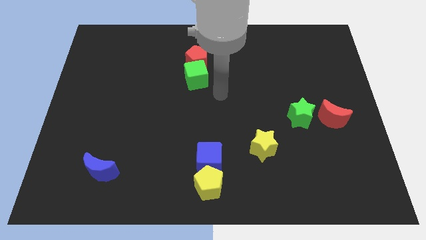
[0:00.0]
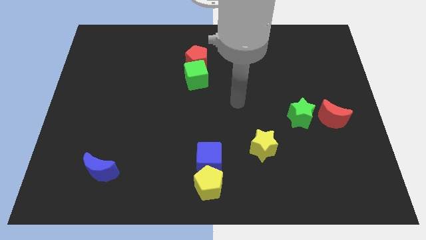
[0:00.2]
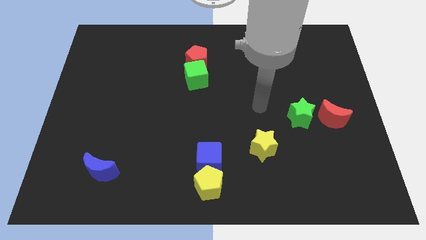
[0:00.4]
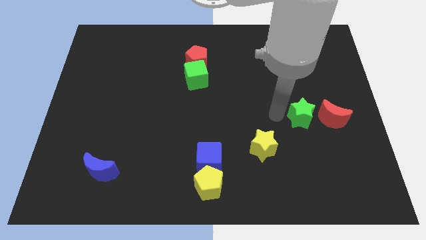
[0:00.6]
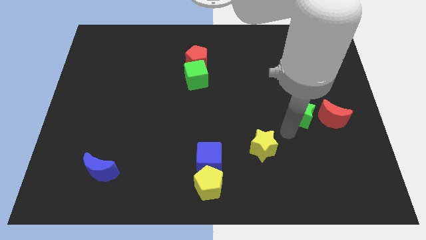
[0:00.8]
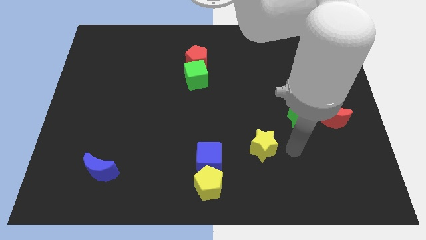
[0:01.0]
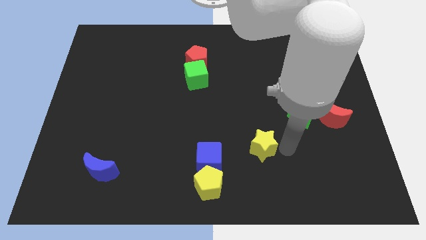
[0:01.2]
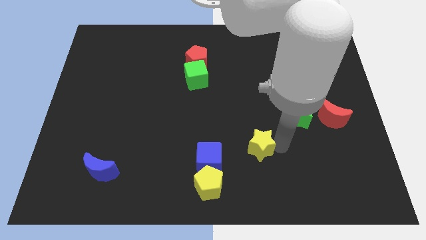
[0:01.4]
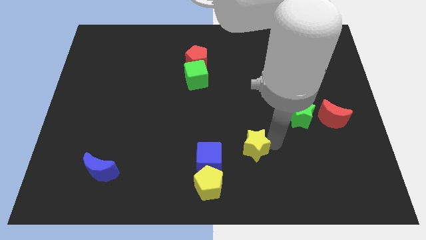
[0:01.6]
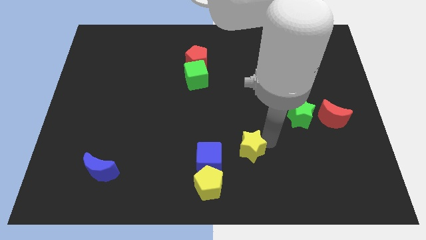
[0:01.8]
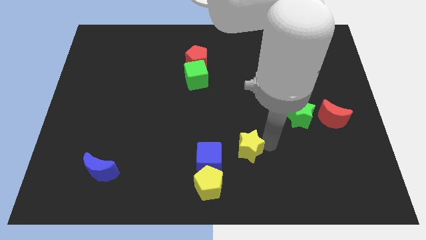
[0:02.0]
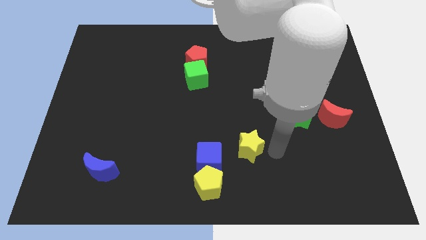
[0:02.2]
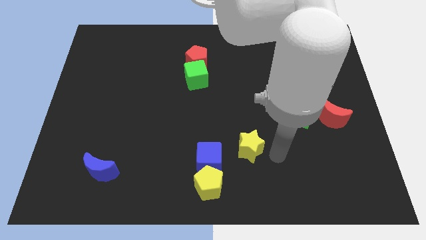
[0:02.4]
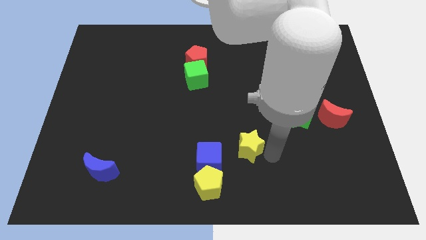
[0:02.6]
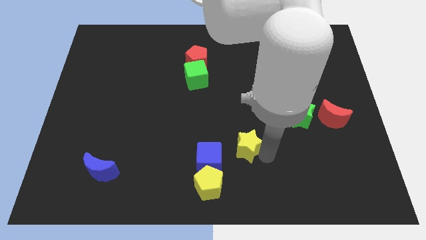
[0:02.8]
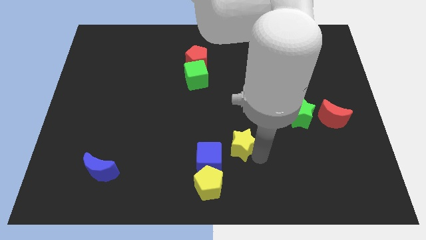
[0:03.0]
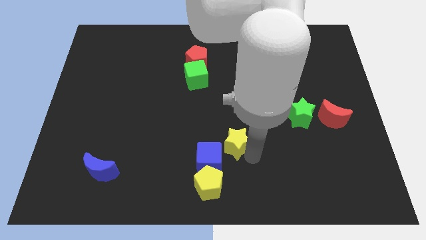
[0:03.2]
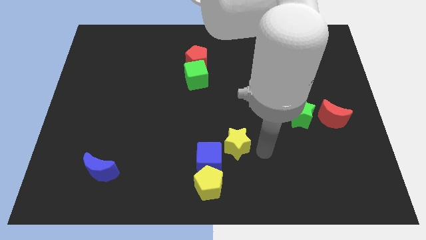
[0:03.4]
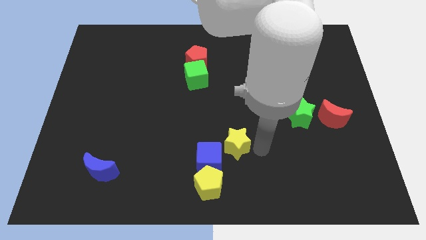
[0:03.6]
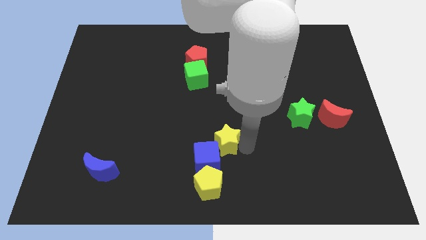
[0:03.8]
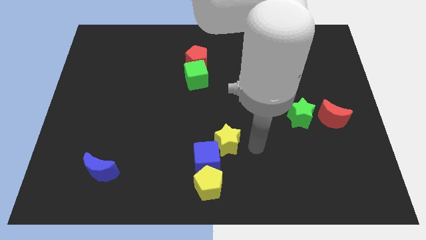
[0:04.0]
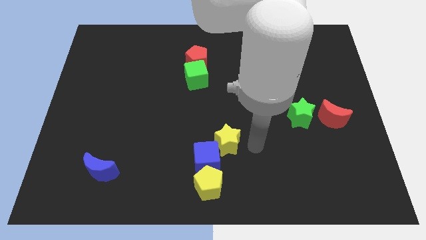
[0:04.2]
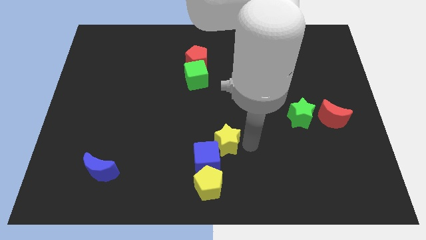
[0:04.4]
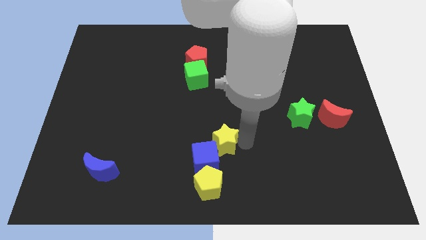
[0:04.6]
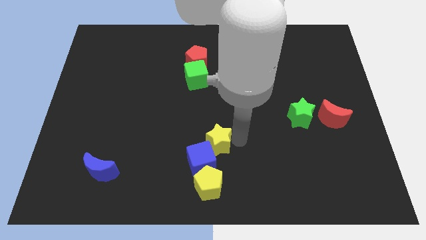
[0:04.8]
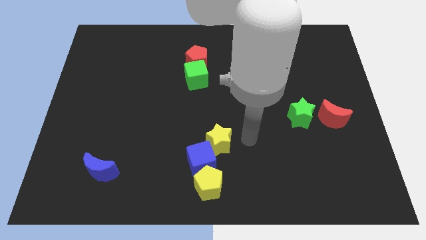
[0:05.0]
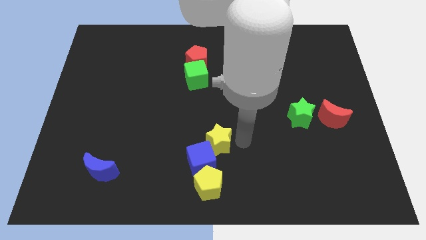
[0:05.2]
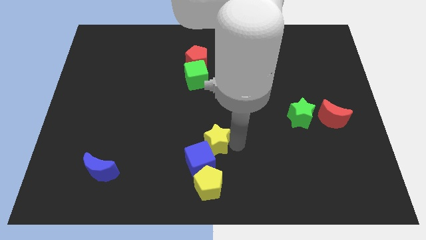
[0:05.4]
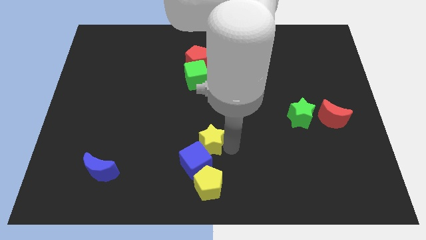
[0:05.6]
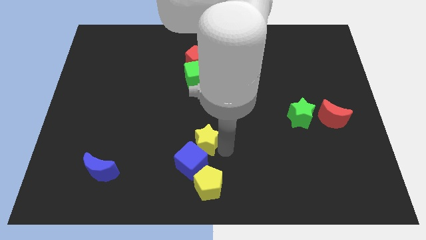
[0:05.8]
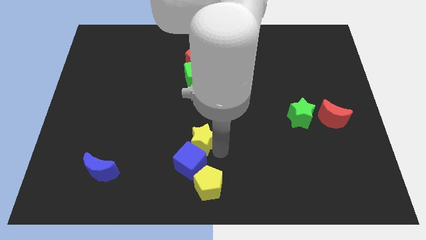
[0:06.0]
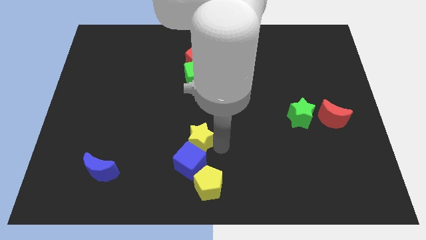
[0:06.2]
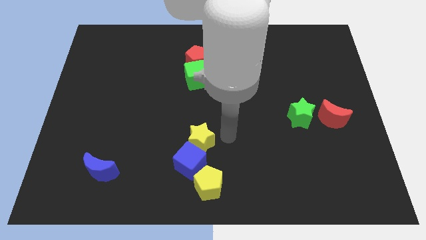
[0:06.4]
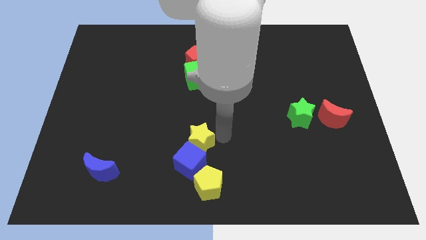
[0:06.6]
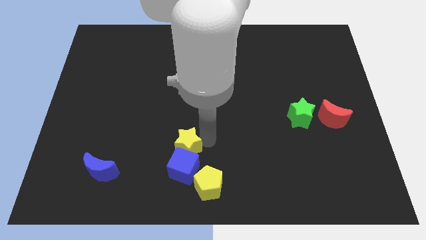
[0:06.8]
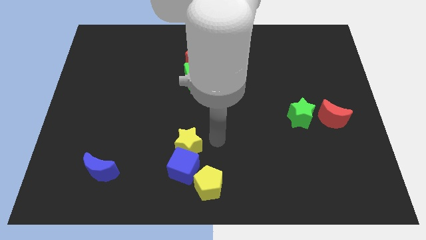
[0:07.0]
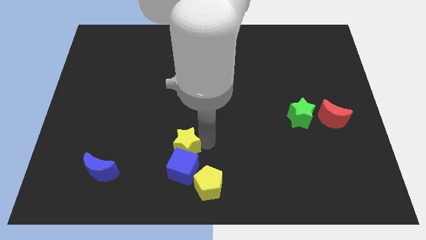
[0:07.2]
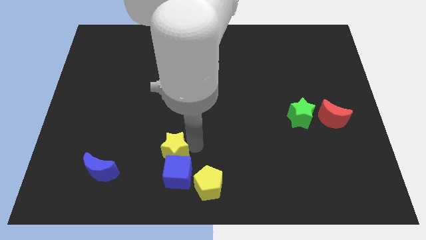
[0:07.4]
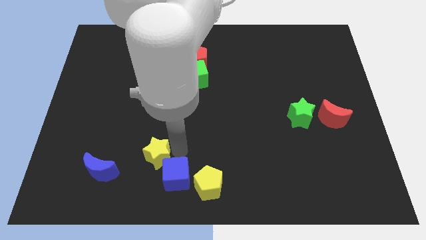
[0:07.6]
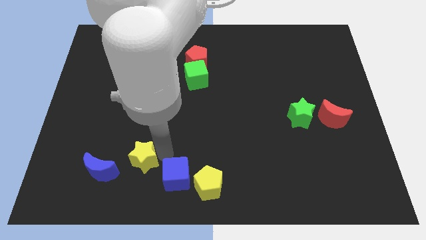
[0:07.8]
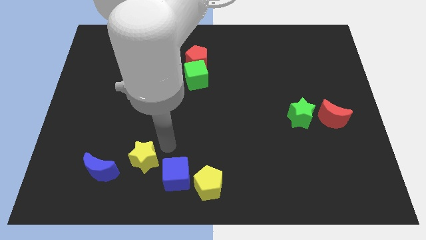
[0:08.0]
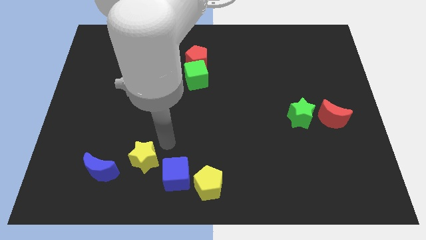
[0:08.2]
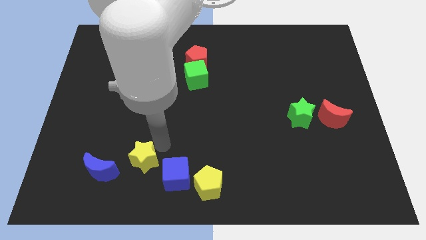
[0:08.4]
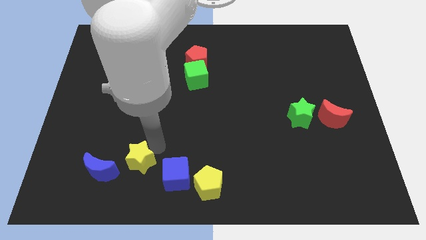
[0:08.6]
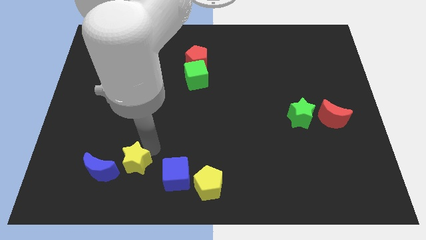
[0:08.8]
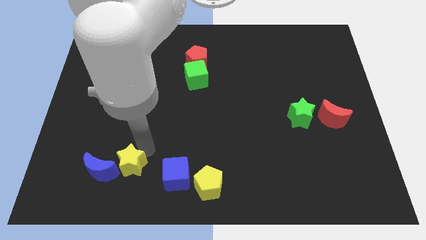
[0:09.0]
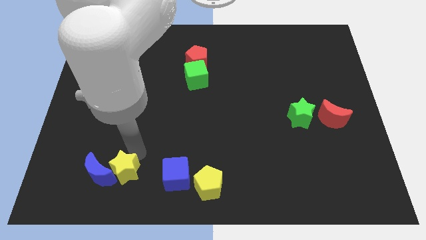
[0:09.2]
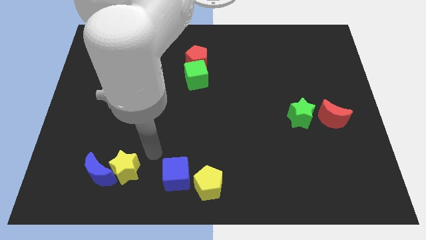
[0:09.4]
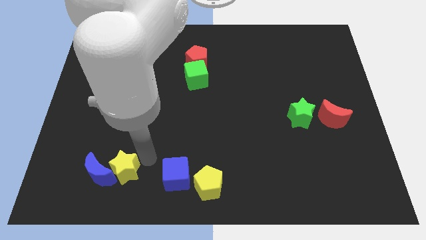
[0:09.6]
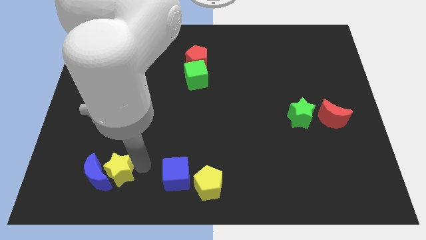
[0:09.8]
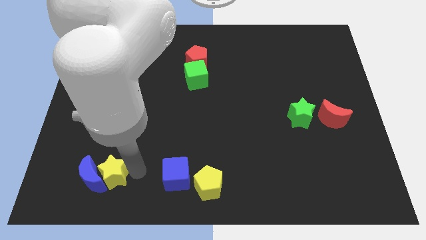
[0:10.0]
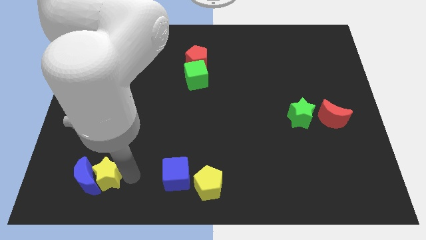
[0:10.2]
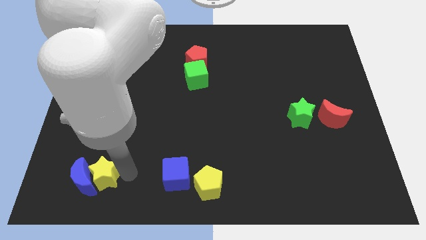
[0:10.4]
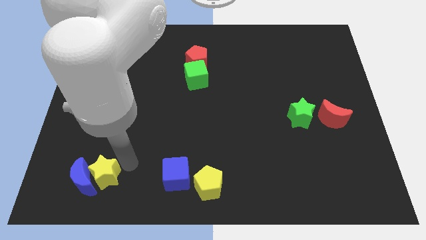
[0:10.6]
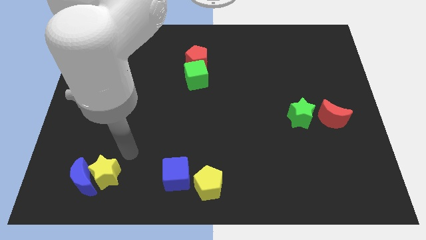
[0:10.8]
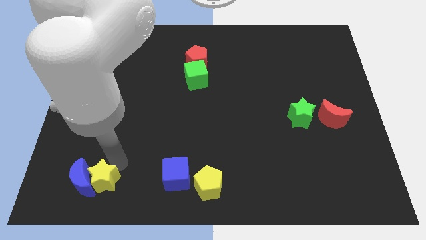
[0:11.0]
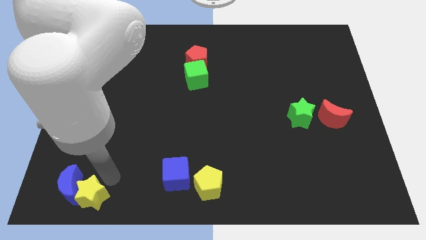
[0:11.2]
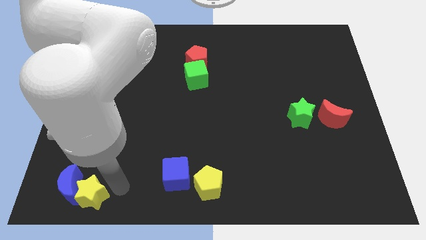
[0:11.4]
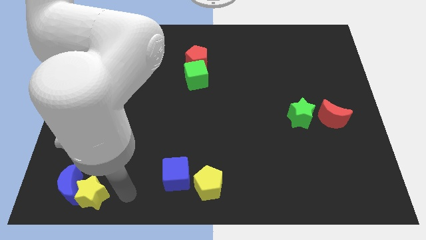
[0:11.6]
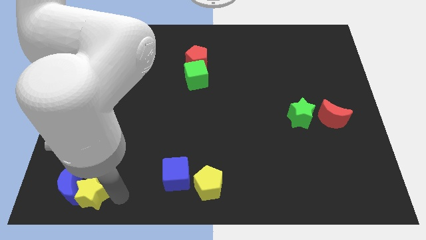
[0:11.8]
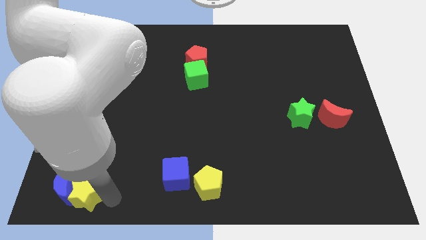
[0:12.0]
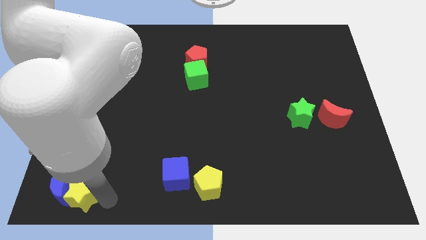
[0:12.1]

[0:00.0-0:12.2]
slide the yellow star to the bottom left of the board

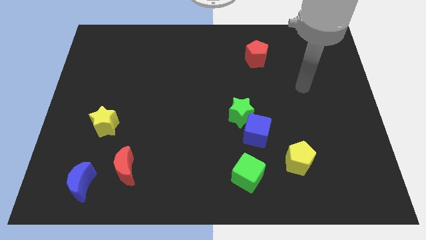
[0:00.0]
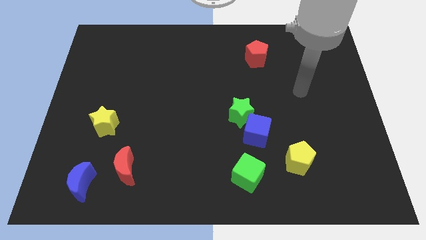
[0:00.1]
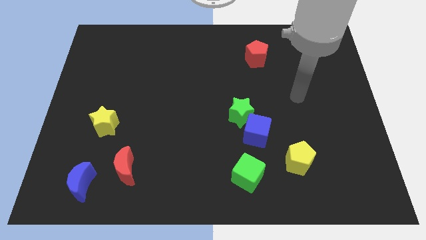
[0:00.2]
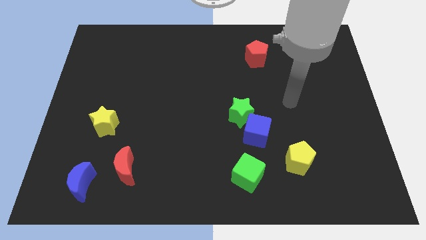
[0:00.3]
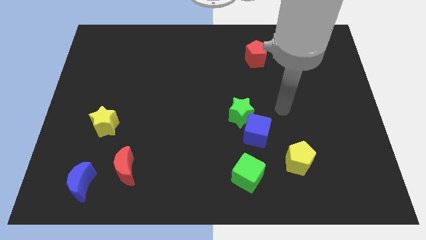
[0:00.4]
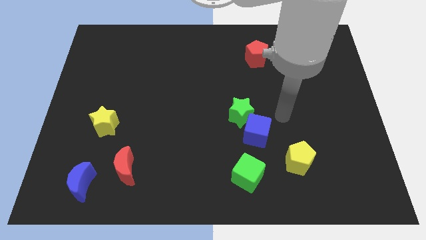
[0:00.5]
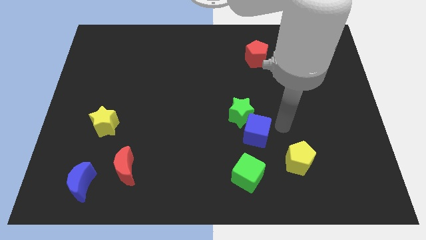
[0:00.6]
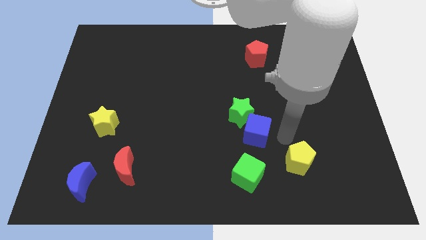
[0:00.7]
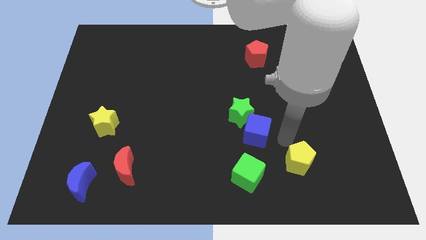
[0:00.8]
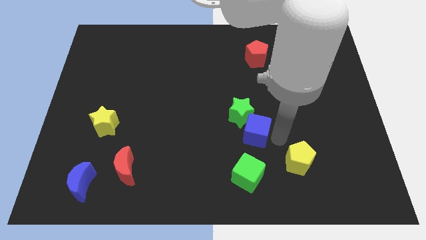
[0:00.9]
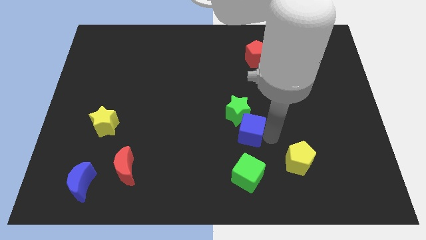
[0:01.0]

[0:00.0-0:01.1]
move the blue cube to the center of the board
